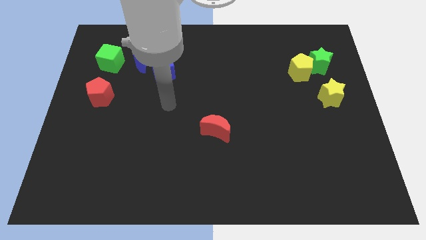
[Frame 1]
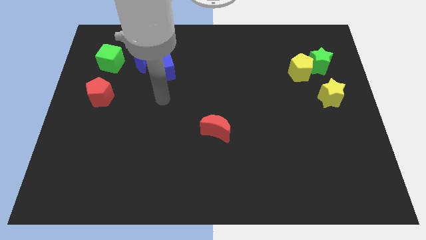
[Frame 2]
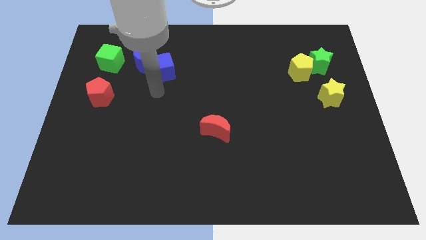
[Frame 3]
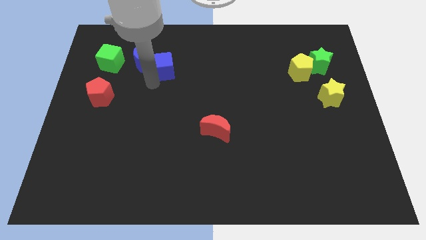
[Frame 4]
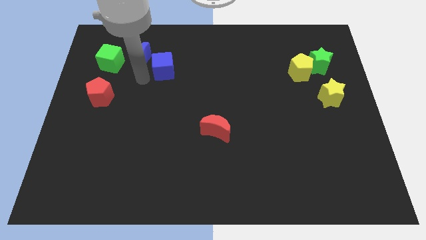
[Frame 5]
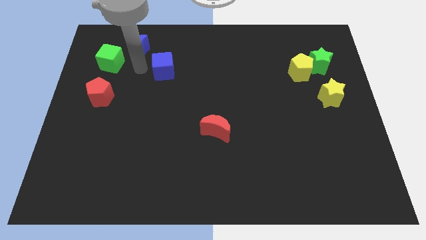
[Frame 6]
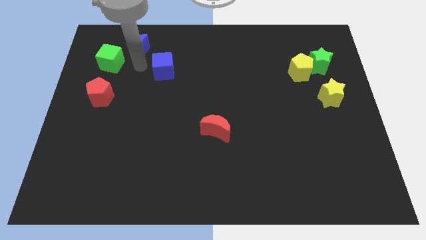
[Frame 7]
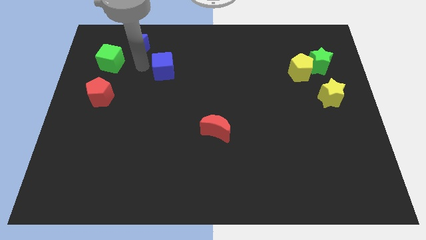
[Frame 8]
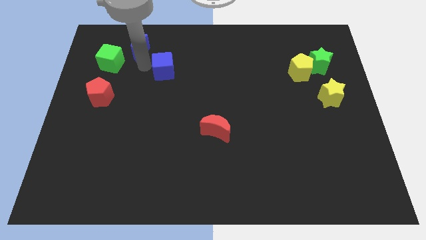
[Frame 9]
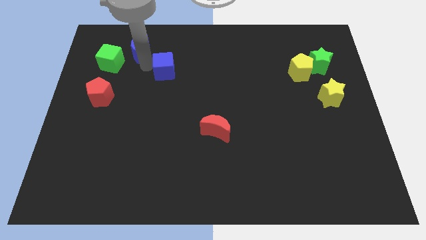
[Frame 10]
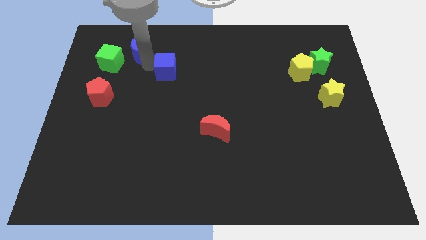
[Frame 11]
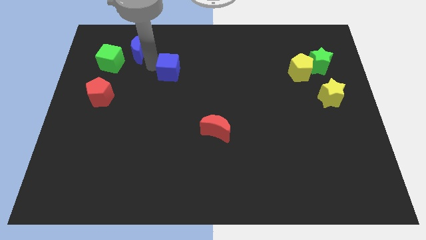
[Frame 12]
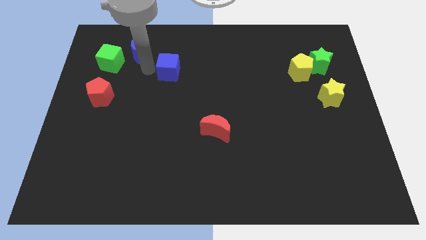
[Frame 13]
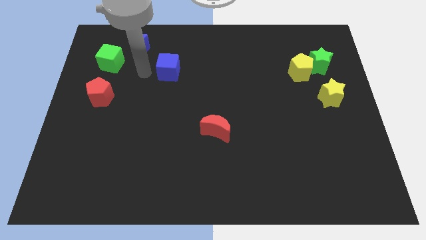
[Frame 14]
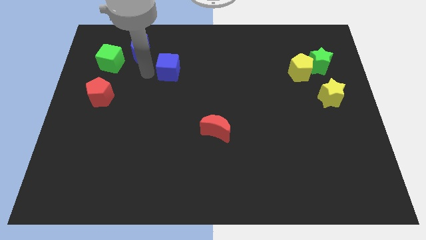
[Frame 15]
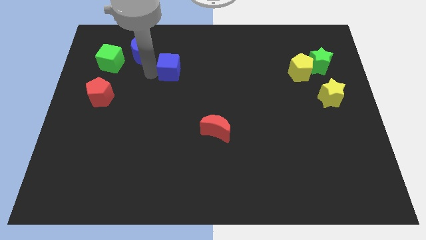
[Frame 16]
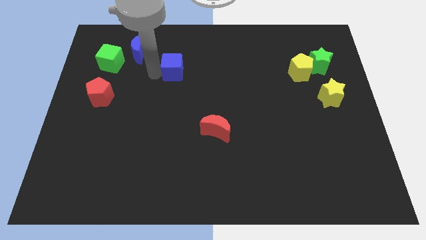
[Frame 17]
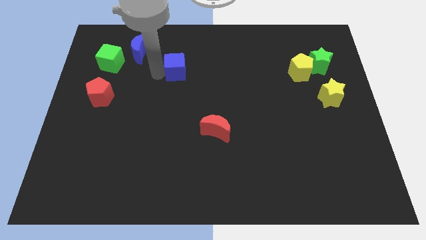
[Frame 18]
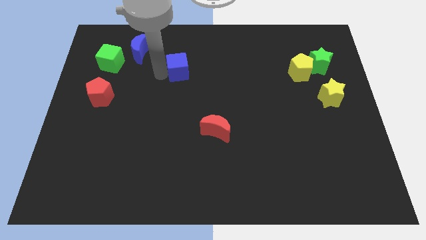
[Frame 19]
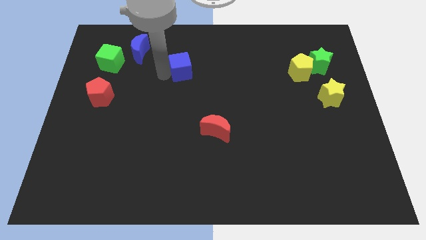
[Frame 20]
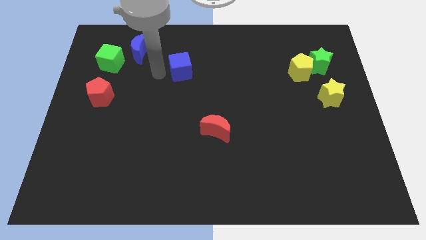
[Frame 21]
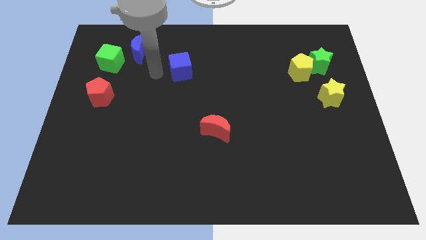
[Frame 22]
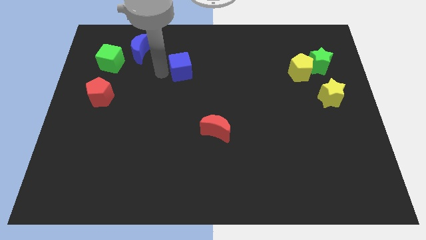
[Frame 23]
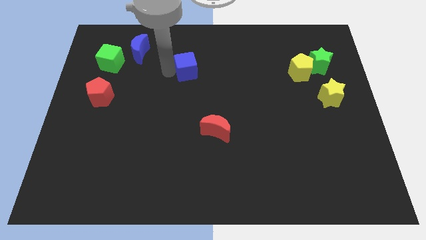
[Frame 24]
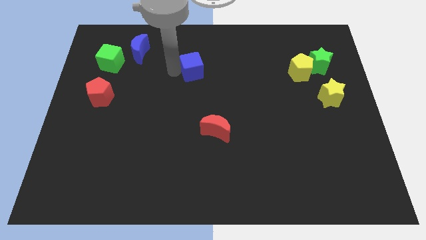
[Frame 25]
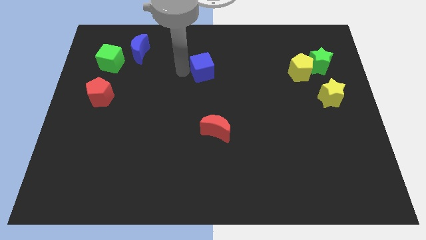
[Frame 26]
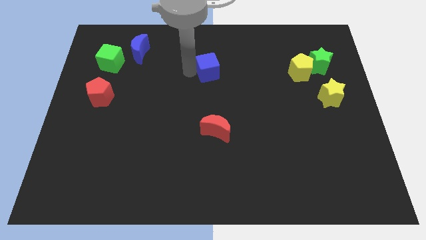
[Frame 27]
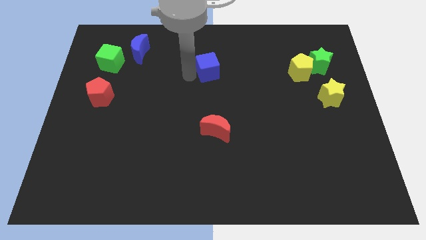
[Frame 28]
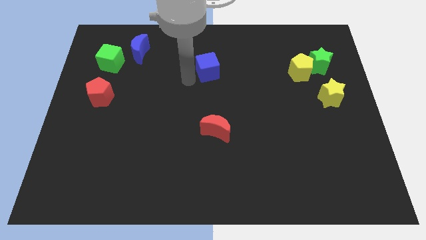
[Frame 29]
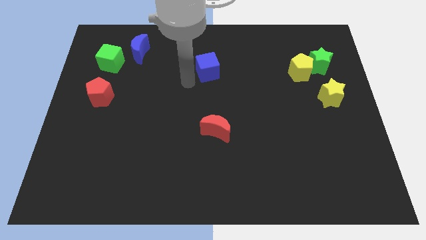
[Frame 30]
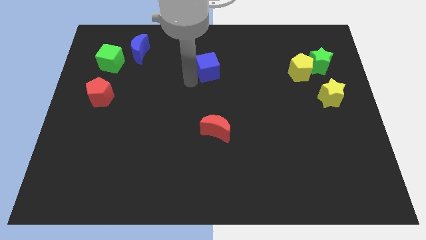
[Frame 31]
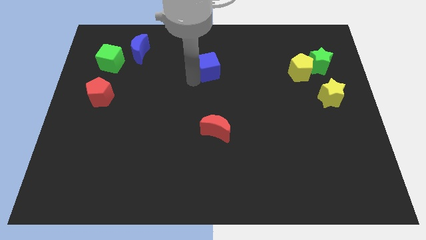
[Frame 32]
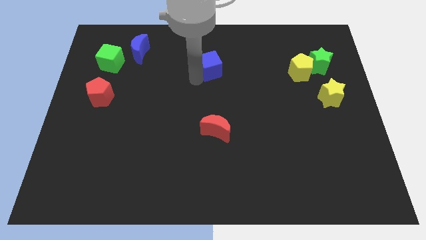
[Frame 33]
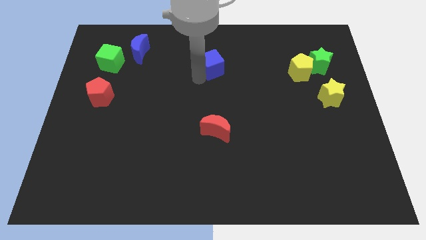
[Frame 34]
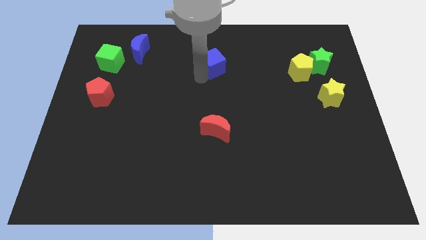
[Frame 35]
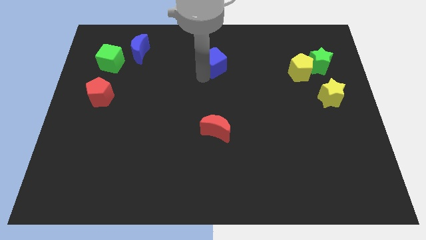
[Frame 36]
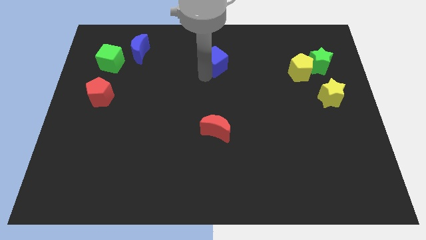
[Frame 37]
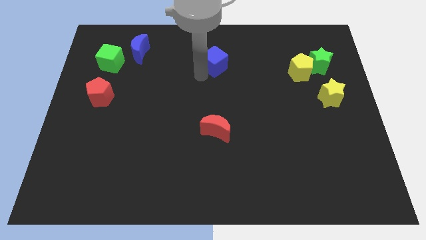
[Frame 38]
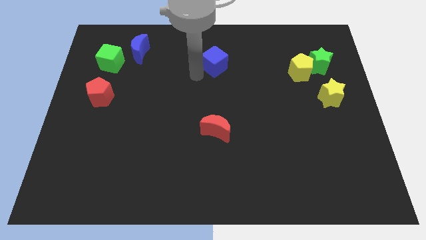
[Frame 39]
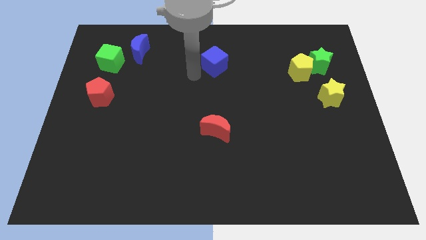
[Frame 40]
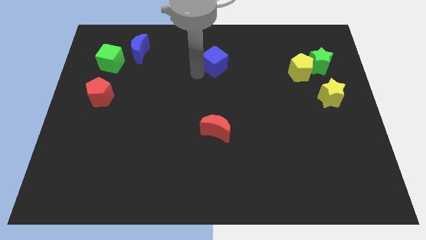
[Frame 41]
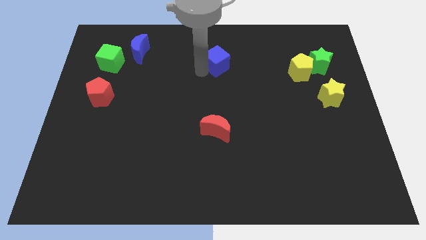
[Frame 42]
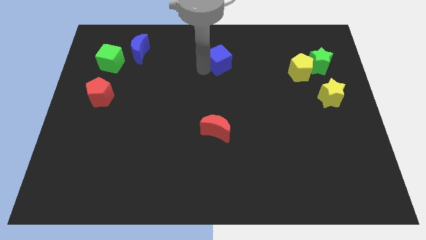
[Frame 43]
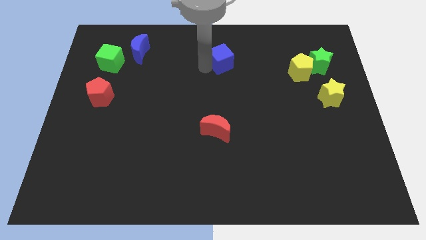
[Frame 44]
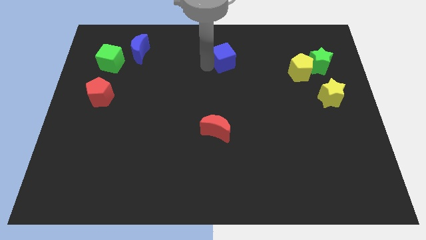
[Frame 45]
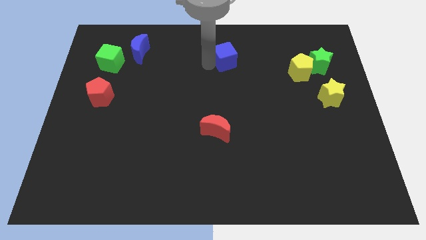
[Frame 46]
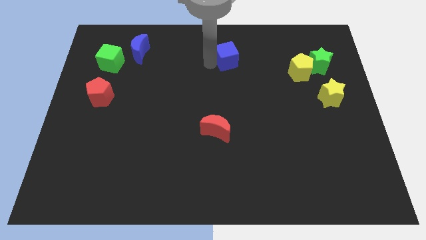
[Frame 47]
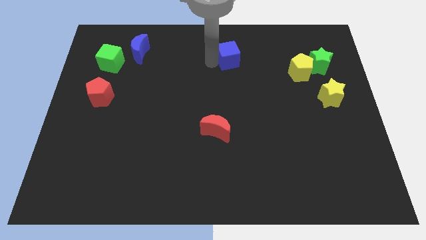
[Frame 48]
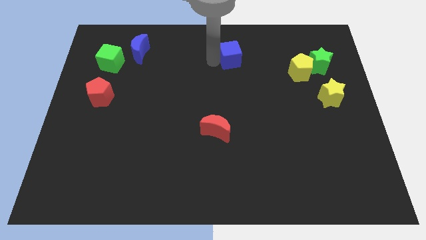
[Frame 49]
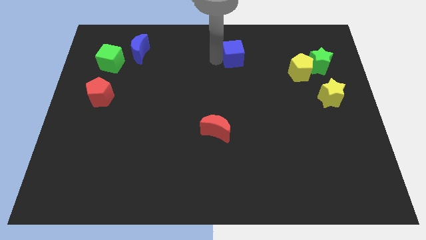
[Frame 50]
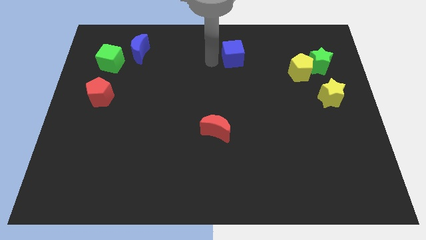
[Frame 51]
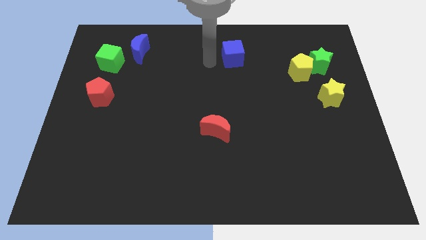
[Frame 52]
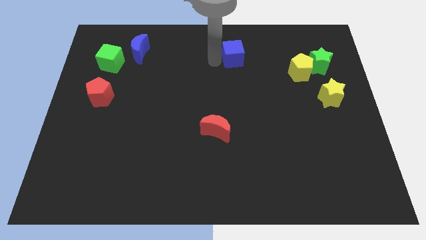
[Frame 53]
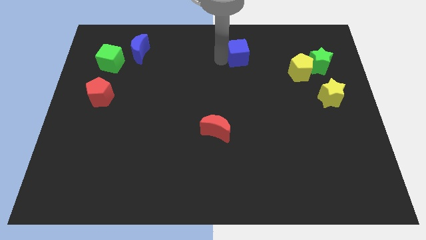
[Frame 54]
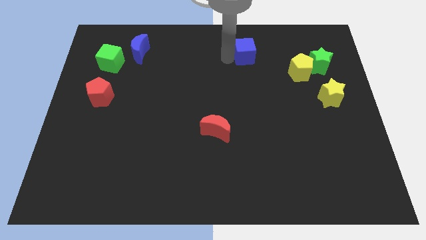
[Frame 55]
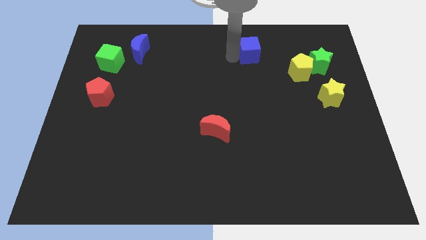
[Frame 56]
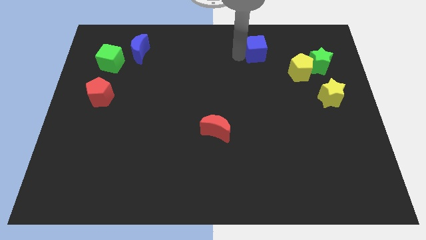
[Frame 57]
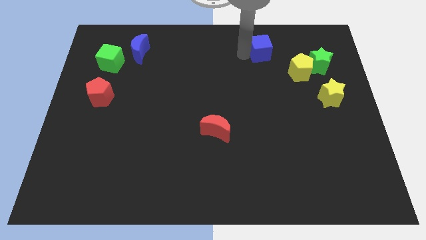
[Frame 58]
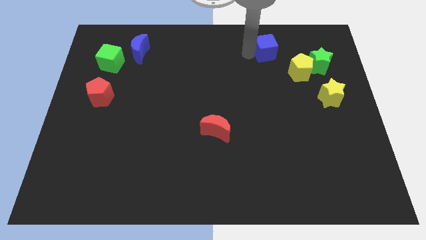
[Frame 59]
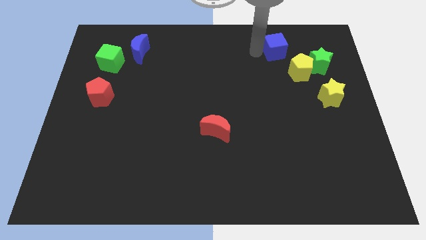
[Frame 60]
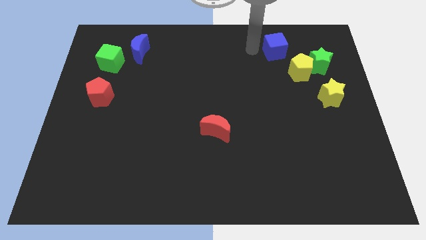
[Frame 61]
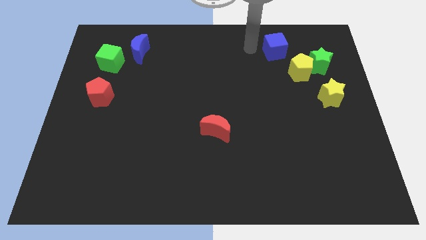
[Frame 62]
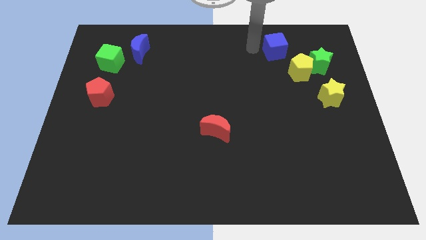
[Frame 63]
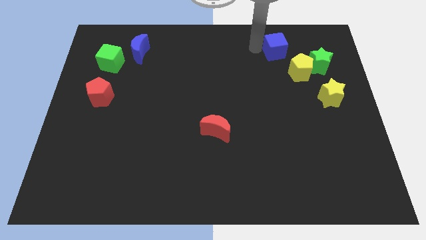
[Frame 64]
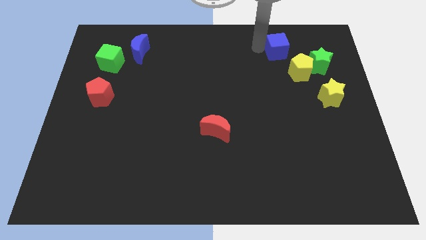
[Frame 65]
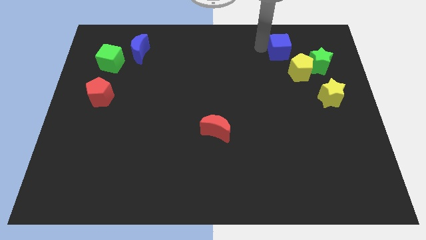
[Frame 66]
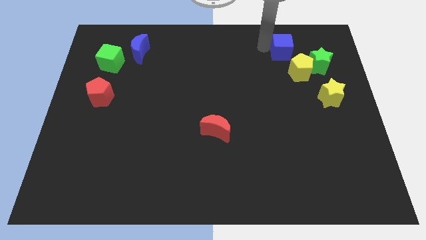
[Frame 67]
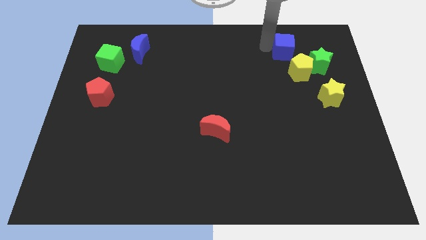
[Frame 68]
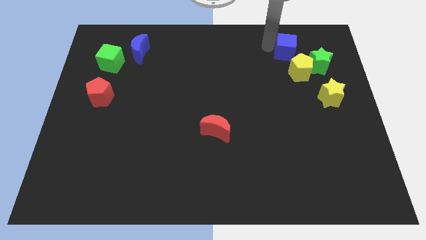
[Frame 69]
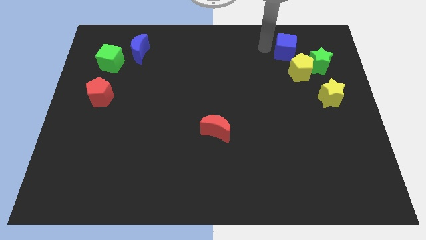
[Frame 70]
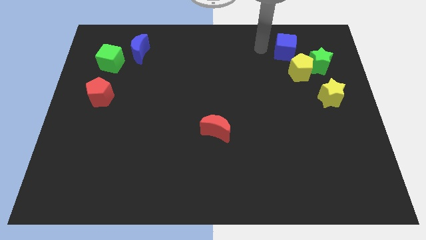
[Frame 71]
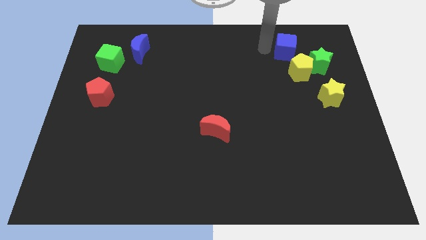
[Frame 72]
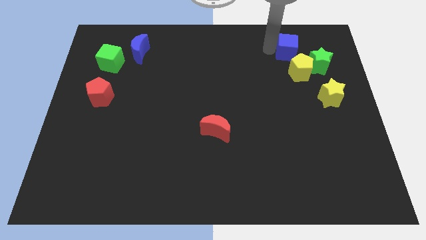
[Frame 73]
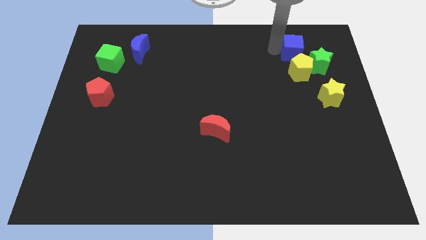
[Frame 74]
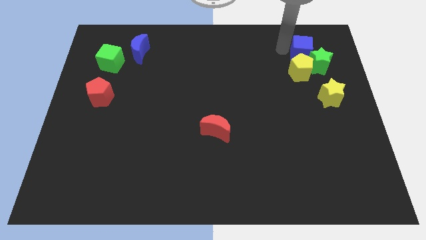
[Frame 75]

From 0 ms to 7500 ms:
move the blue cube next to the green star
